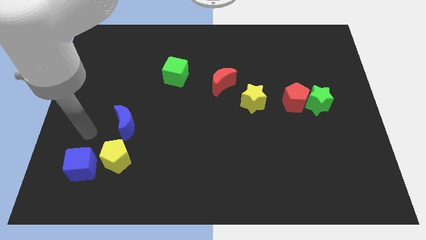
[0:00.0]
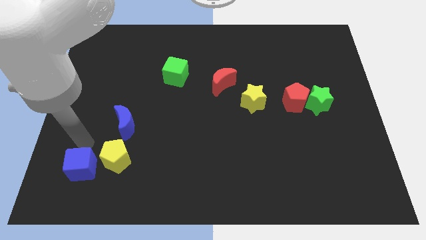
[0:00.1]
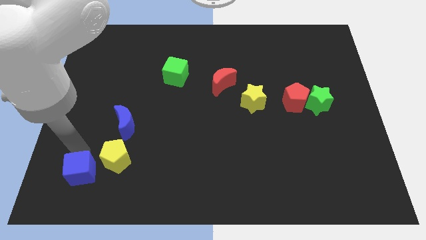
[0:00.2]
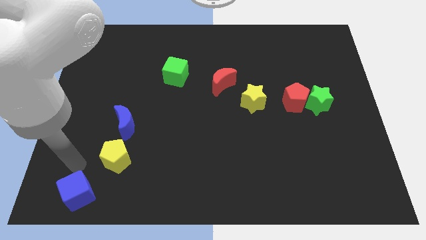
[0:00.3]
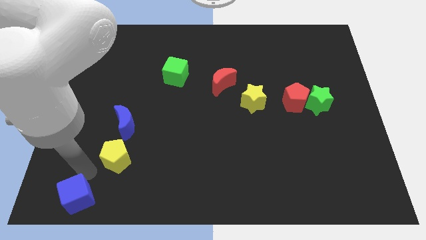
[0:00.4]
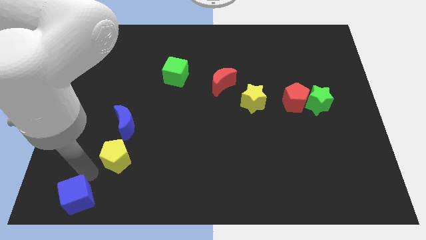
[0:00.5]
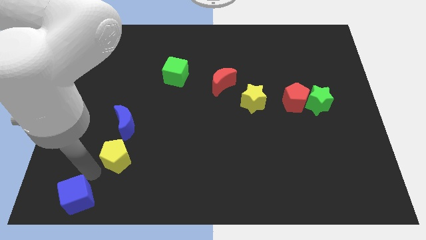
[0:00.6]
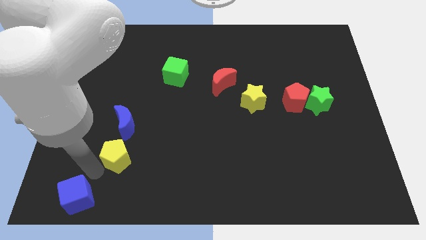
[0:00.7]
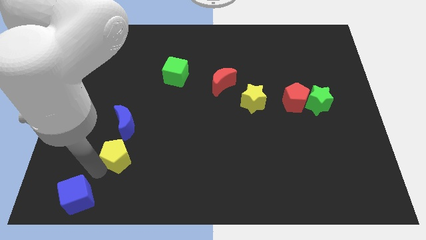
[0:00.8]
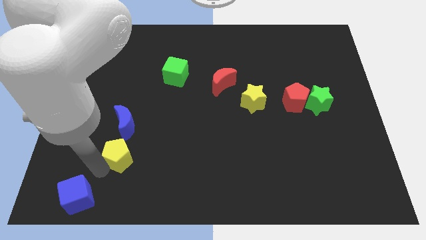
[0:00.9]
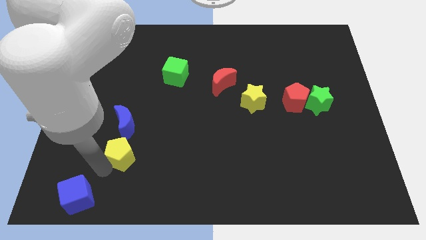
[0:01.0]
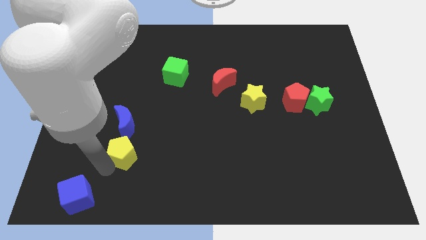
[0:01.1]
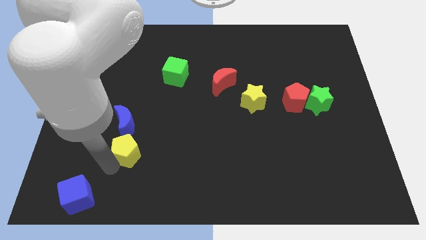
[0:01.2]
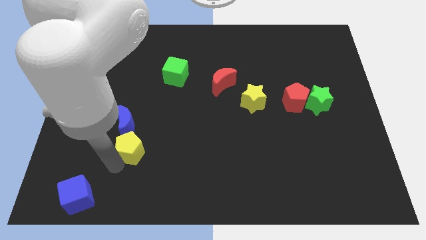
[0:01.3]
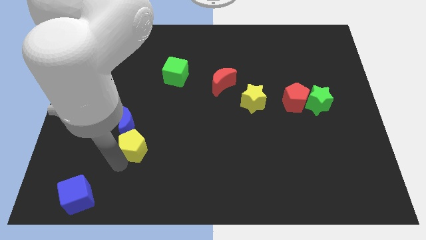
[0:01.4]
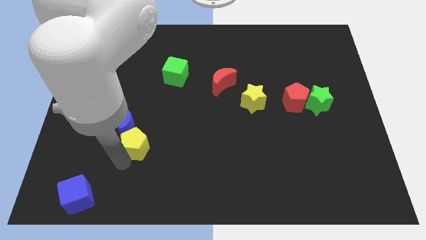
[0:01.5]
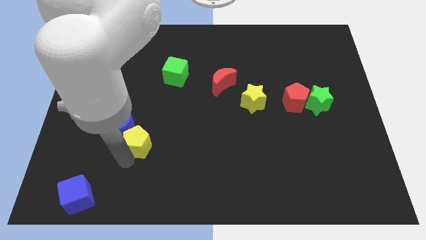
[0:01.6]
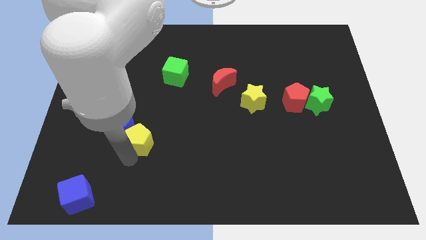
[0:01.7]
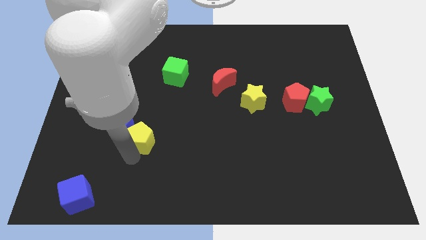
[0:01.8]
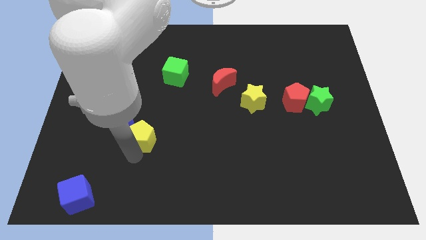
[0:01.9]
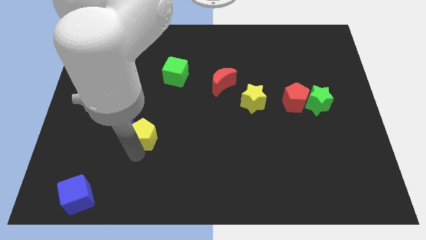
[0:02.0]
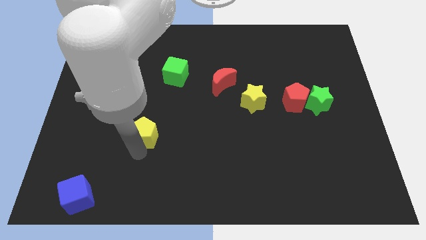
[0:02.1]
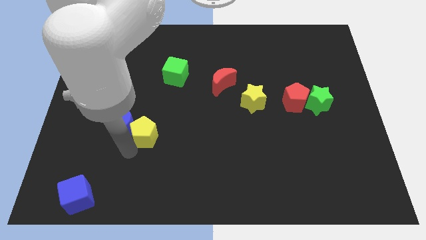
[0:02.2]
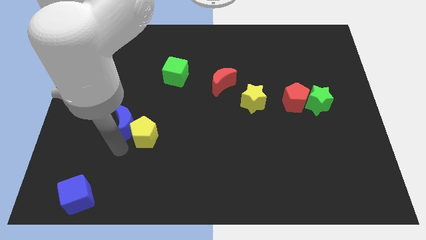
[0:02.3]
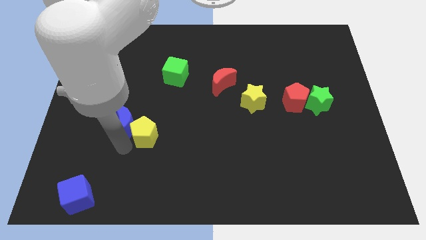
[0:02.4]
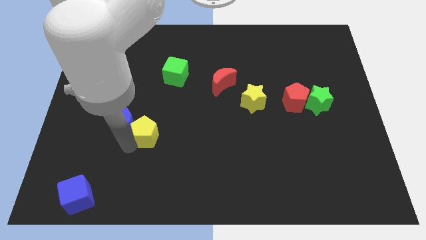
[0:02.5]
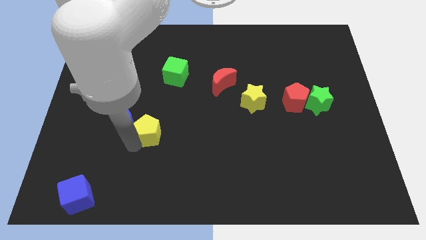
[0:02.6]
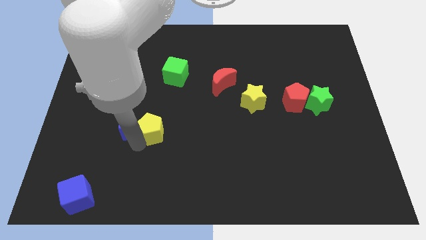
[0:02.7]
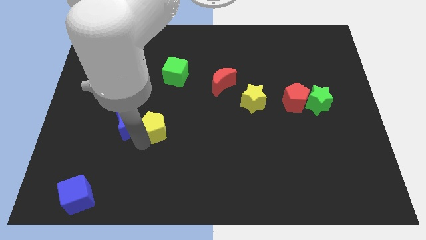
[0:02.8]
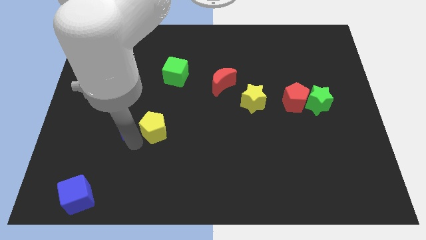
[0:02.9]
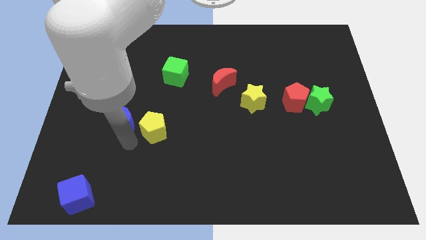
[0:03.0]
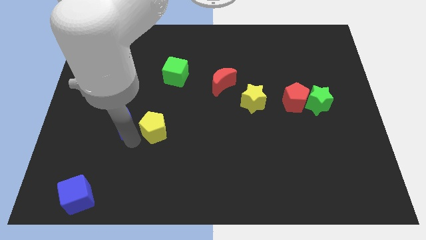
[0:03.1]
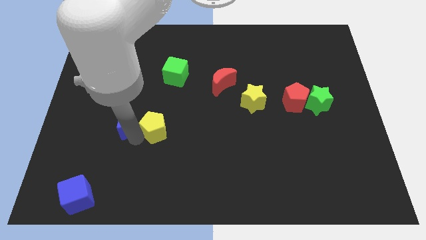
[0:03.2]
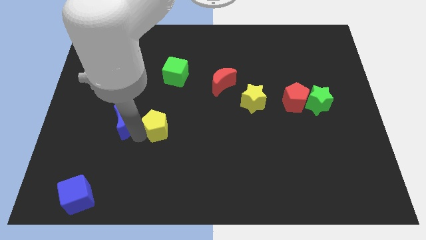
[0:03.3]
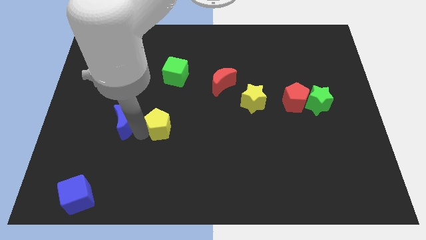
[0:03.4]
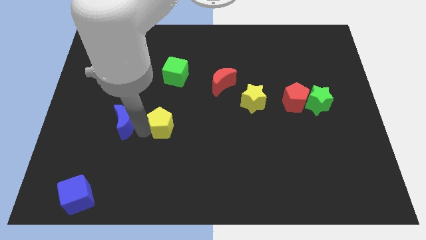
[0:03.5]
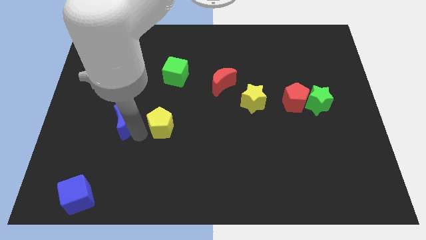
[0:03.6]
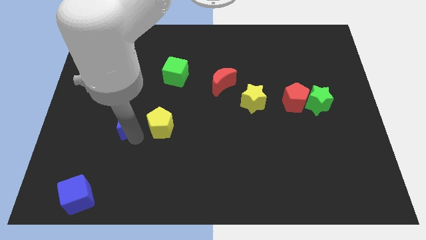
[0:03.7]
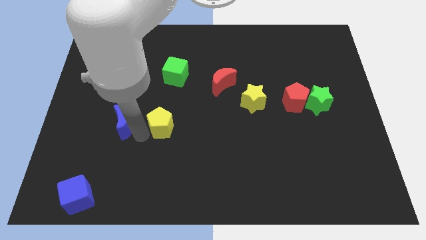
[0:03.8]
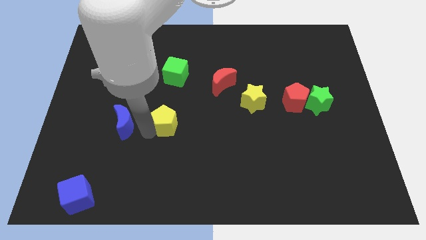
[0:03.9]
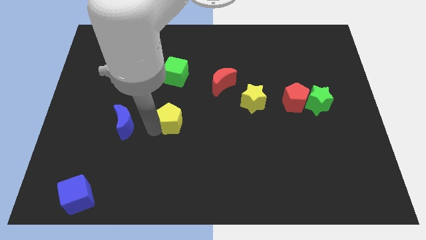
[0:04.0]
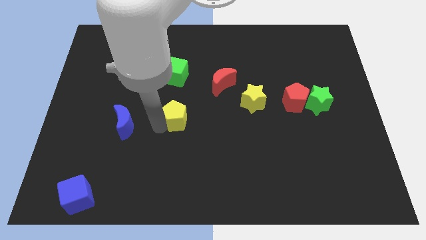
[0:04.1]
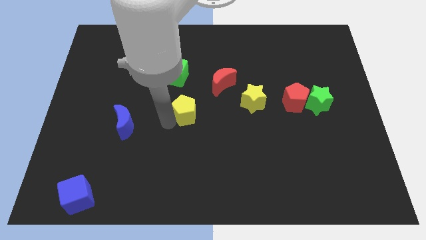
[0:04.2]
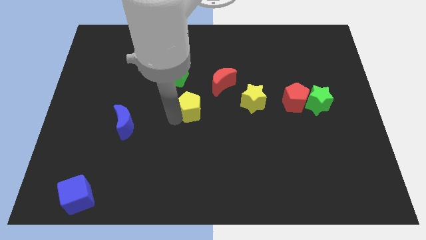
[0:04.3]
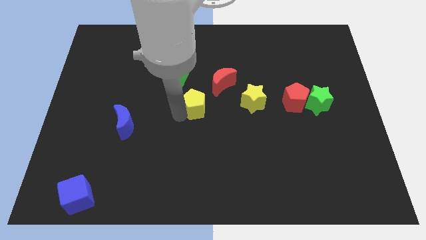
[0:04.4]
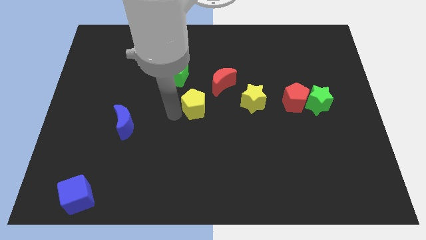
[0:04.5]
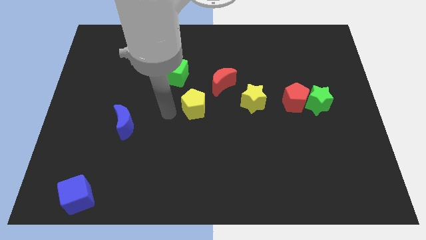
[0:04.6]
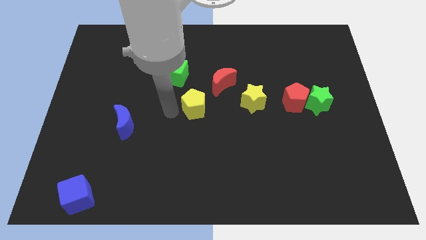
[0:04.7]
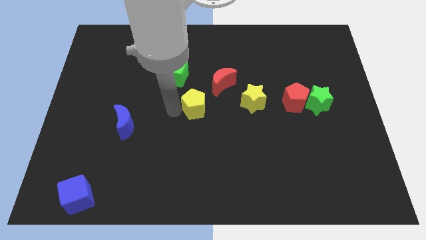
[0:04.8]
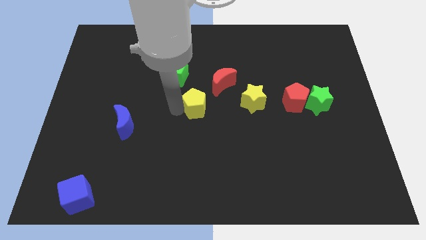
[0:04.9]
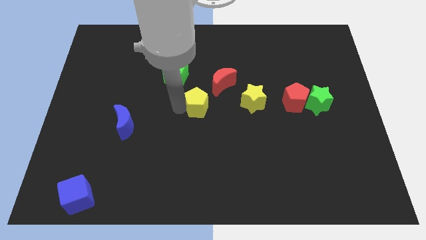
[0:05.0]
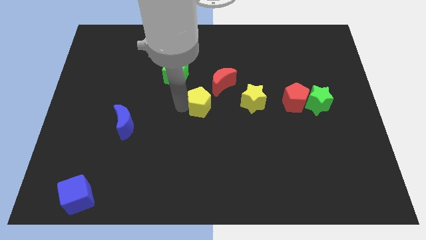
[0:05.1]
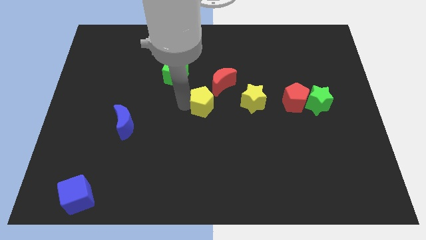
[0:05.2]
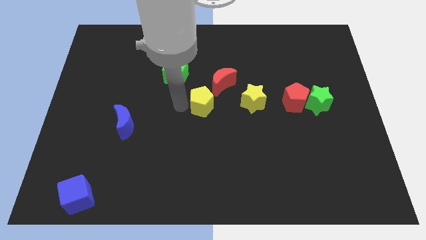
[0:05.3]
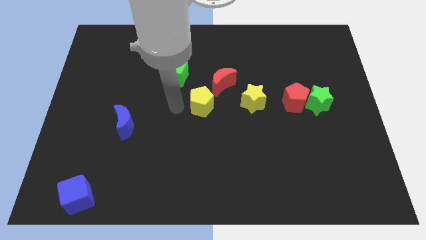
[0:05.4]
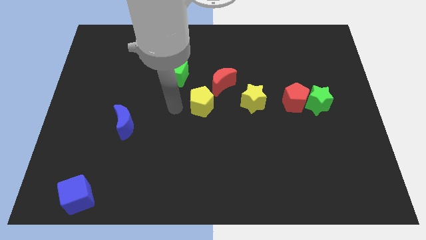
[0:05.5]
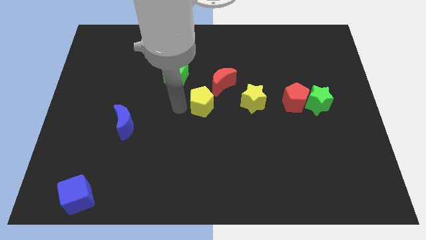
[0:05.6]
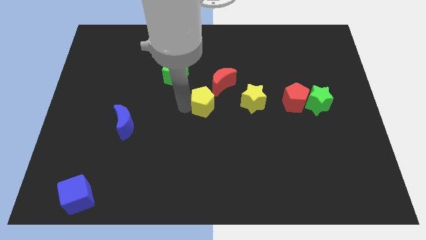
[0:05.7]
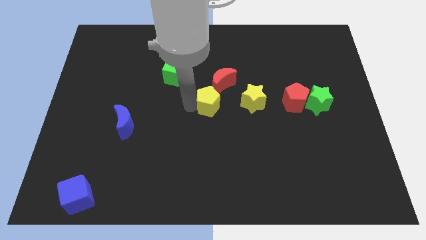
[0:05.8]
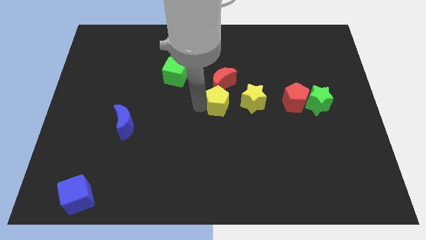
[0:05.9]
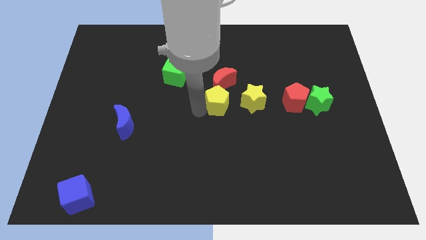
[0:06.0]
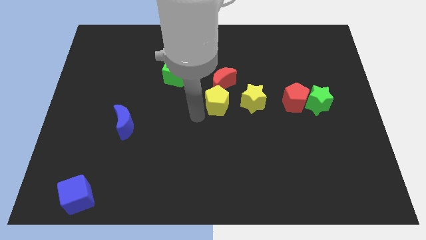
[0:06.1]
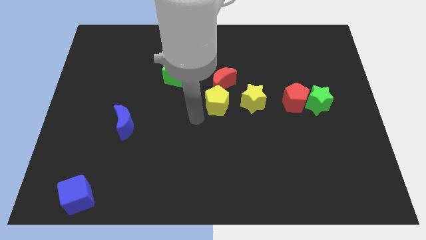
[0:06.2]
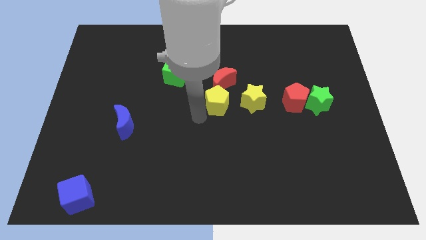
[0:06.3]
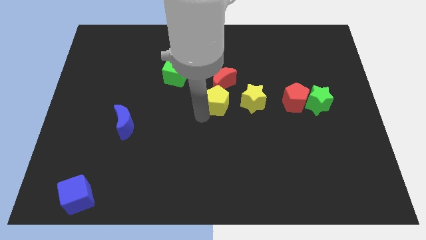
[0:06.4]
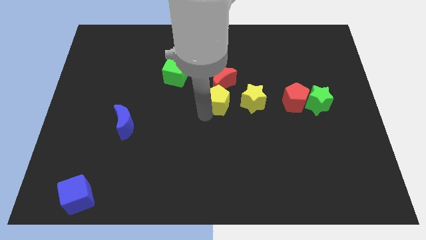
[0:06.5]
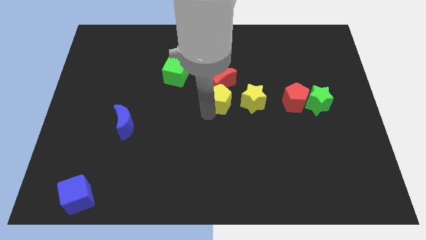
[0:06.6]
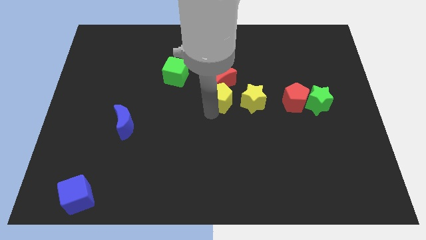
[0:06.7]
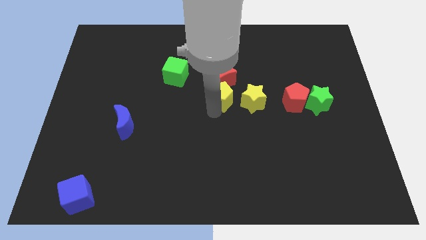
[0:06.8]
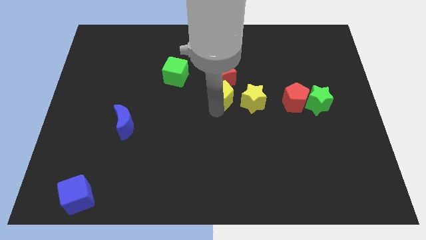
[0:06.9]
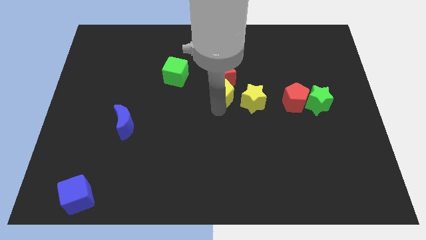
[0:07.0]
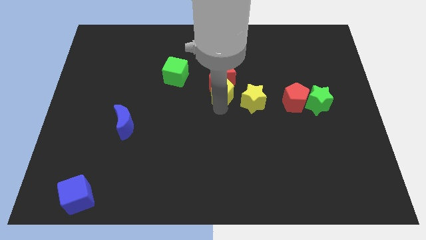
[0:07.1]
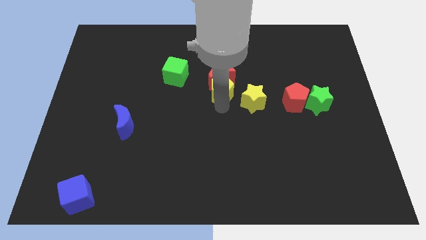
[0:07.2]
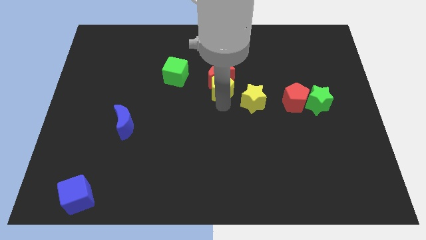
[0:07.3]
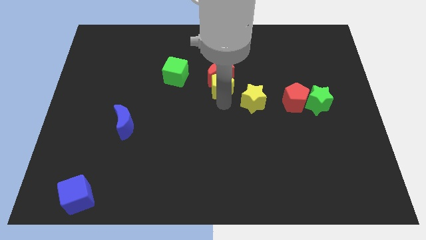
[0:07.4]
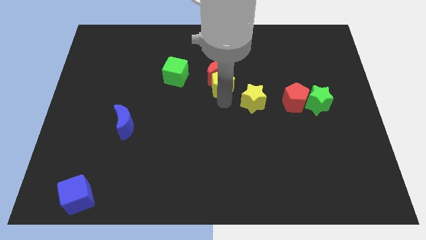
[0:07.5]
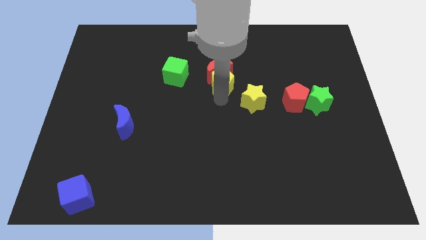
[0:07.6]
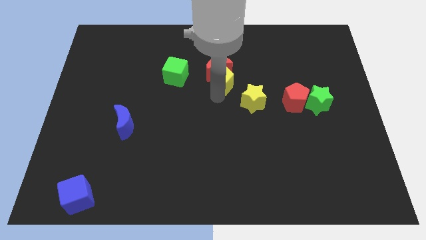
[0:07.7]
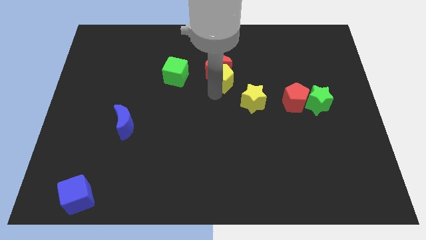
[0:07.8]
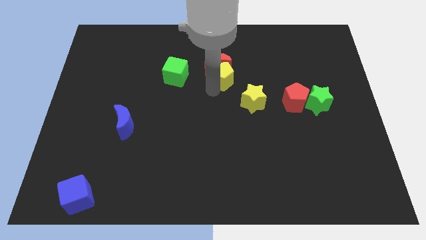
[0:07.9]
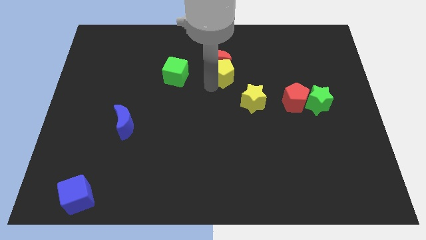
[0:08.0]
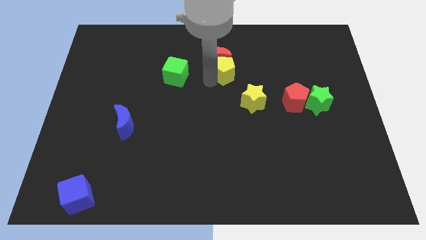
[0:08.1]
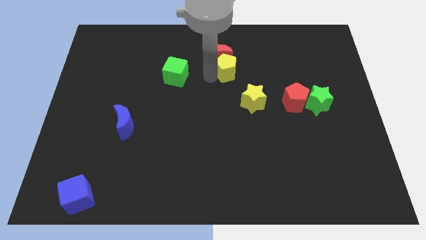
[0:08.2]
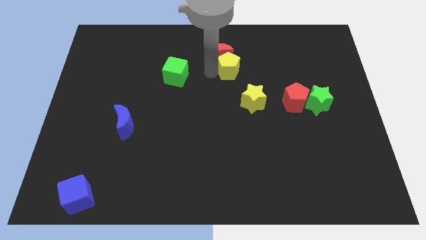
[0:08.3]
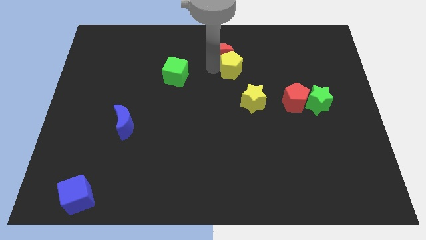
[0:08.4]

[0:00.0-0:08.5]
put the yellow pentagon to the top of the yellow star
